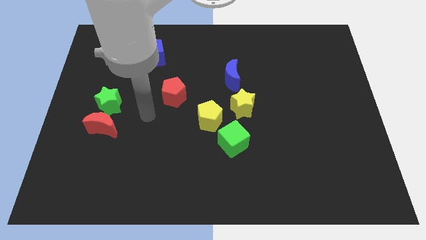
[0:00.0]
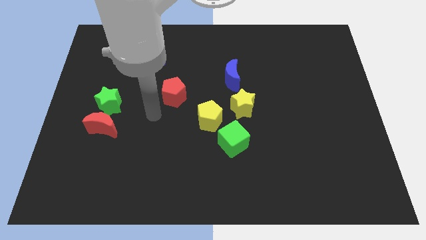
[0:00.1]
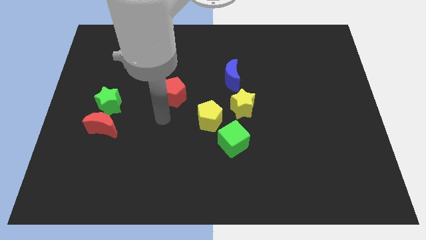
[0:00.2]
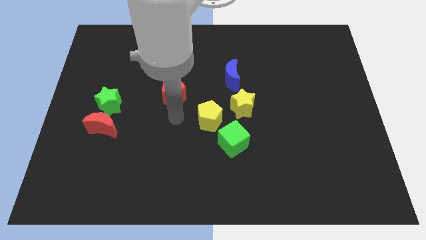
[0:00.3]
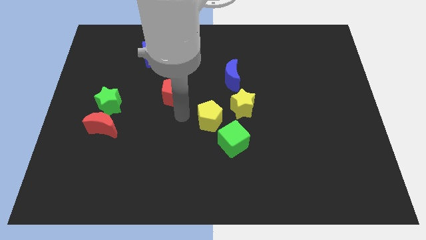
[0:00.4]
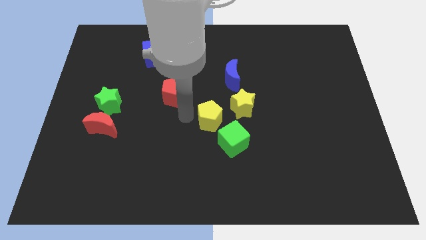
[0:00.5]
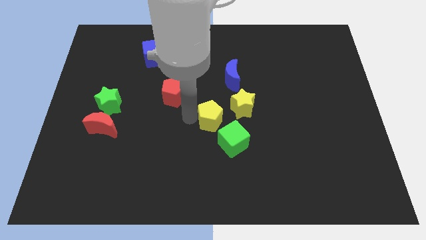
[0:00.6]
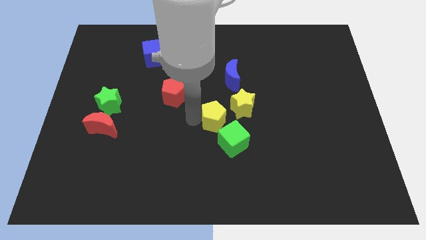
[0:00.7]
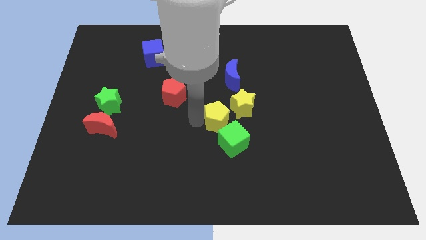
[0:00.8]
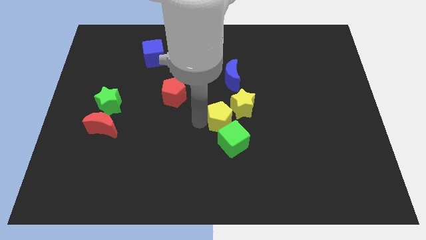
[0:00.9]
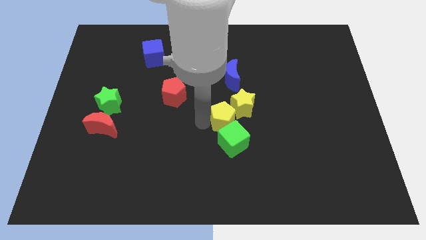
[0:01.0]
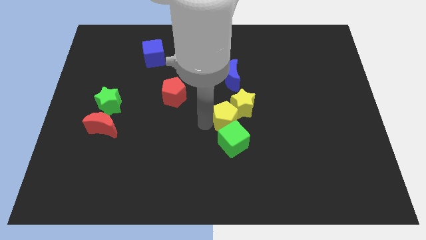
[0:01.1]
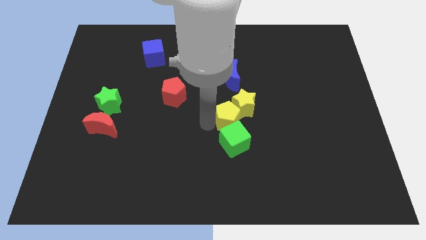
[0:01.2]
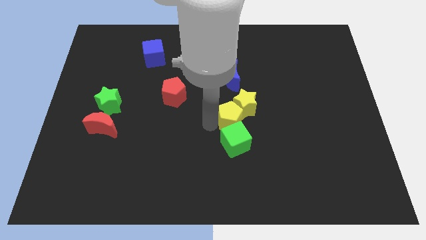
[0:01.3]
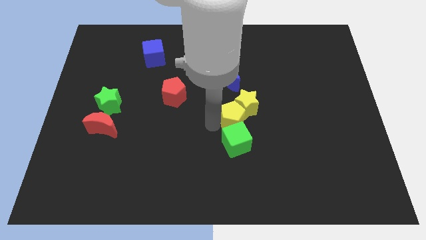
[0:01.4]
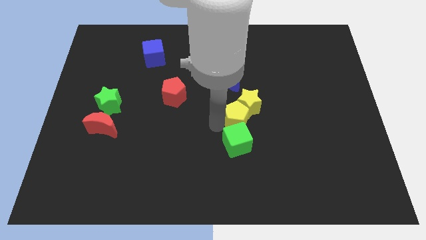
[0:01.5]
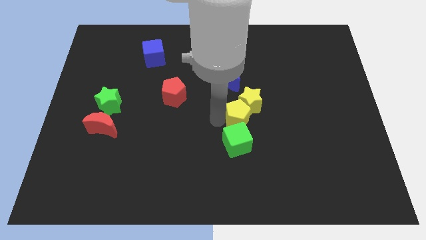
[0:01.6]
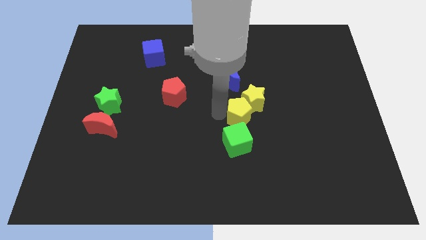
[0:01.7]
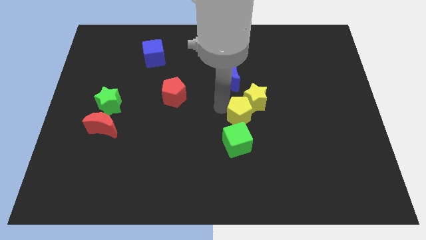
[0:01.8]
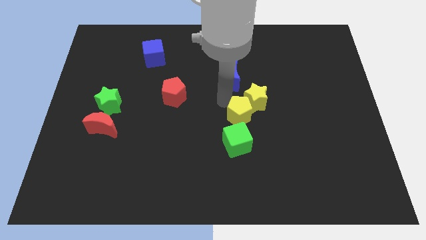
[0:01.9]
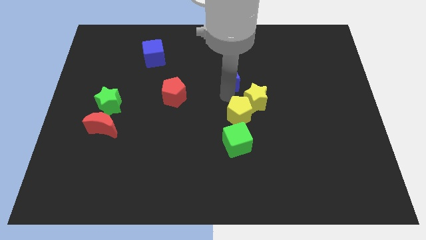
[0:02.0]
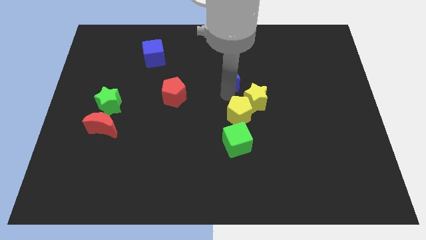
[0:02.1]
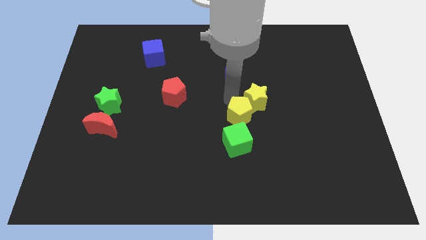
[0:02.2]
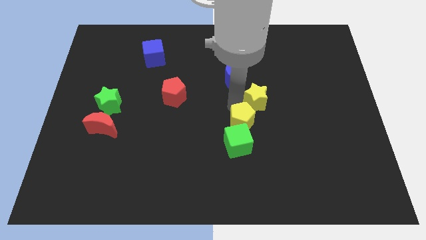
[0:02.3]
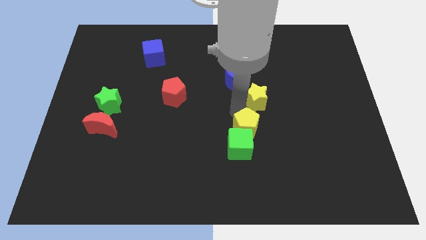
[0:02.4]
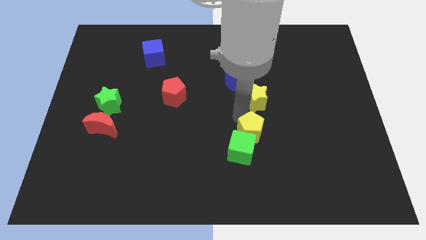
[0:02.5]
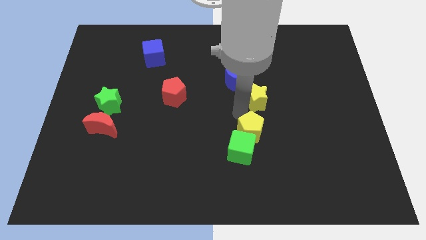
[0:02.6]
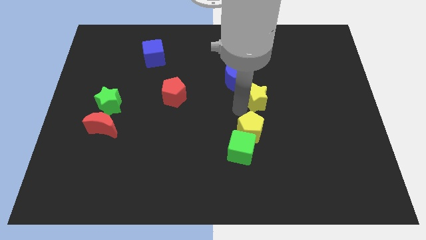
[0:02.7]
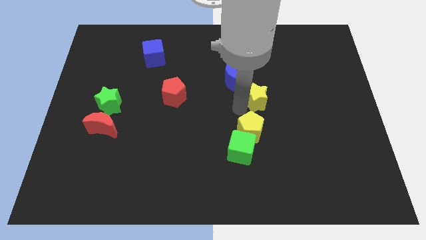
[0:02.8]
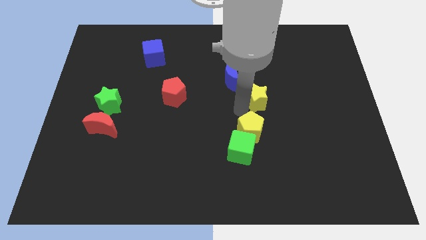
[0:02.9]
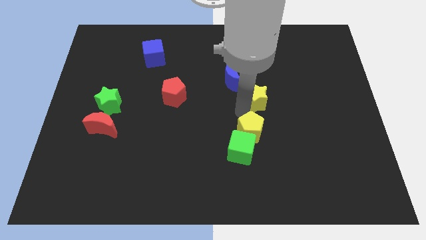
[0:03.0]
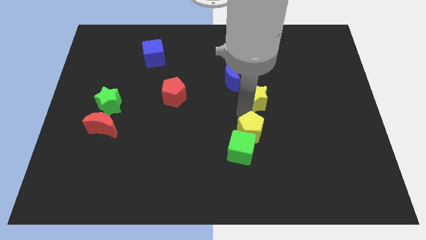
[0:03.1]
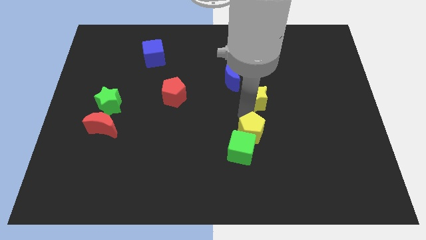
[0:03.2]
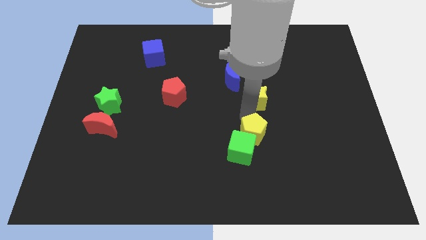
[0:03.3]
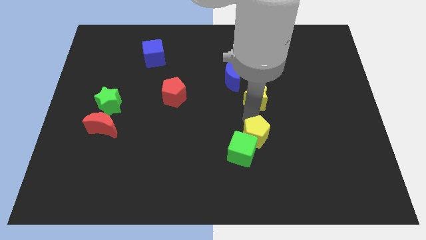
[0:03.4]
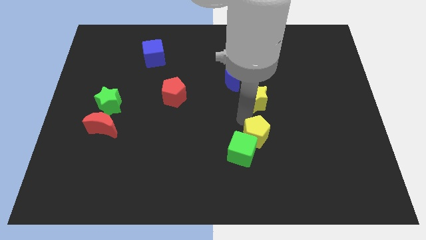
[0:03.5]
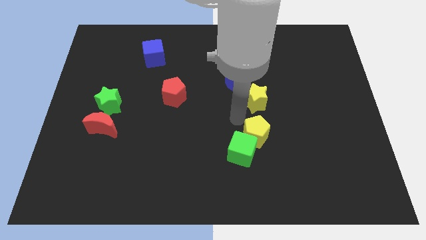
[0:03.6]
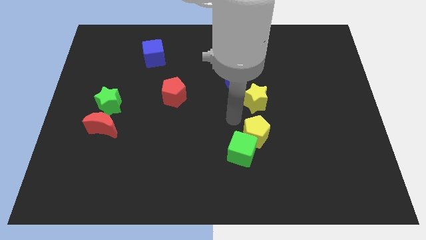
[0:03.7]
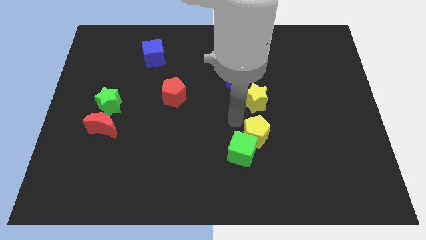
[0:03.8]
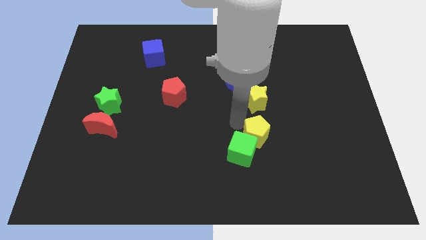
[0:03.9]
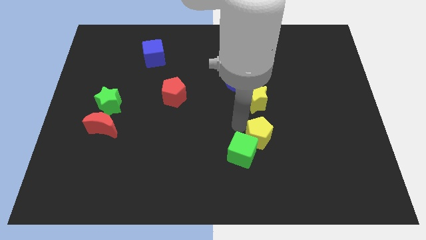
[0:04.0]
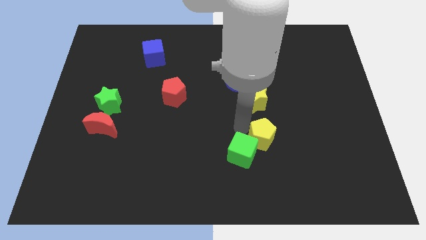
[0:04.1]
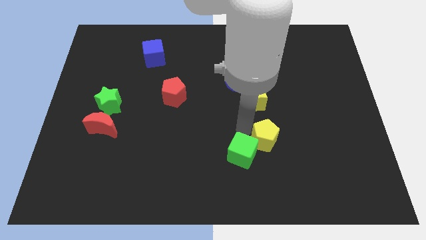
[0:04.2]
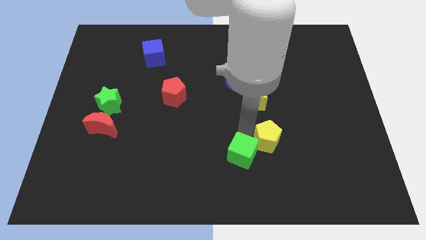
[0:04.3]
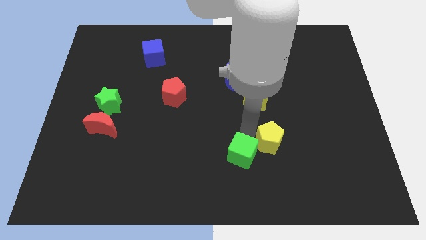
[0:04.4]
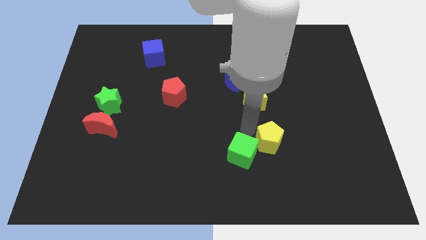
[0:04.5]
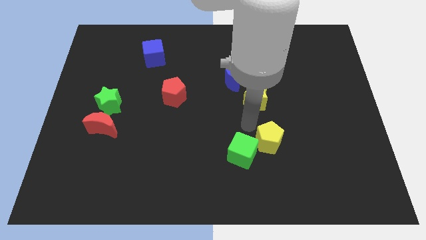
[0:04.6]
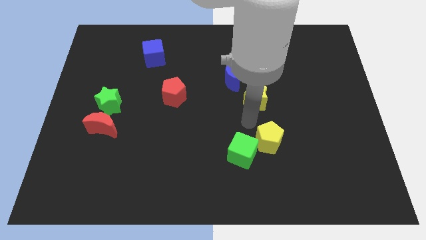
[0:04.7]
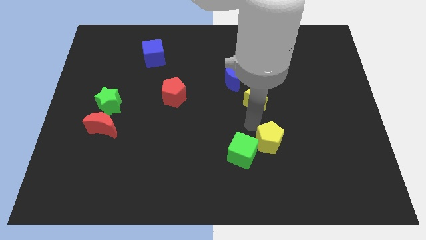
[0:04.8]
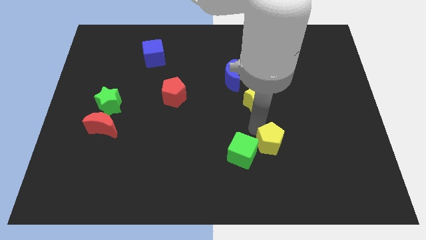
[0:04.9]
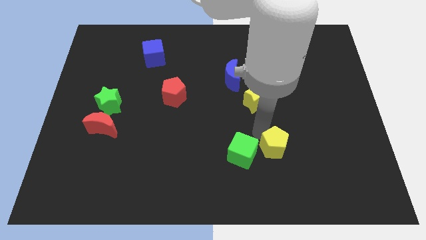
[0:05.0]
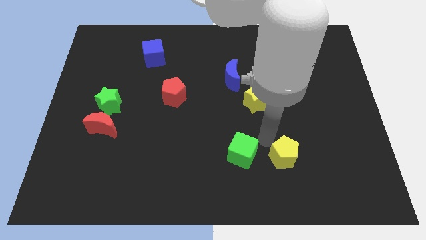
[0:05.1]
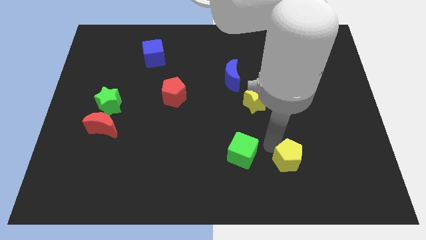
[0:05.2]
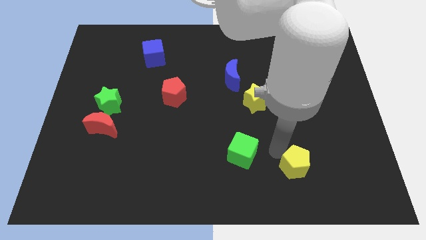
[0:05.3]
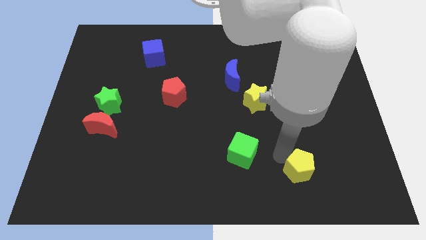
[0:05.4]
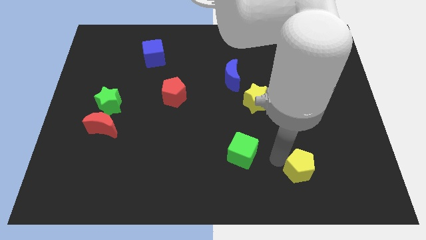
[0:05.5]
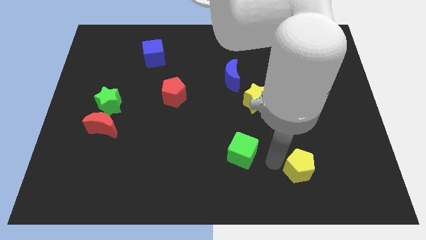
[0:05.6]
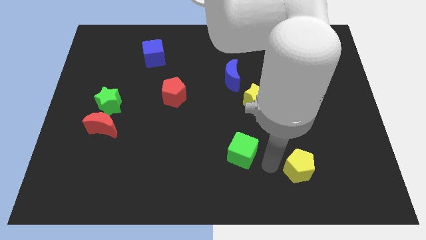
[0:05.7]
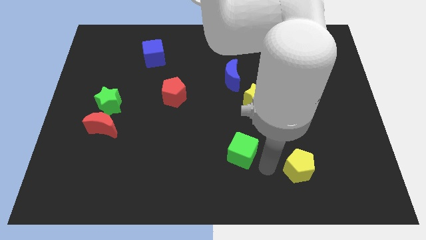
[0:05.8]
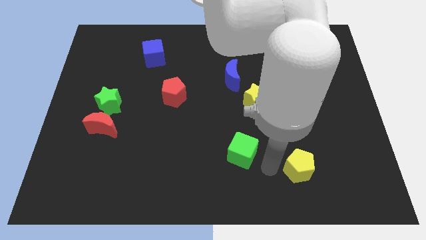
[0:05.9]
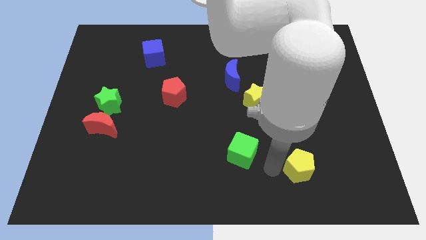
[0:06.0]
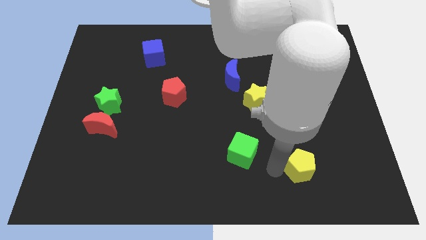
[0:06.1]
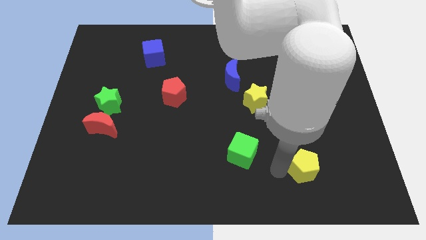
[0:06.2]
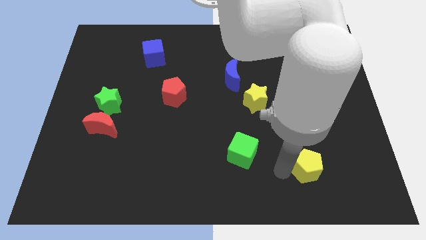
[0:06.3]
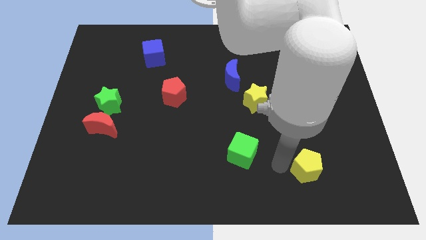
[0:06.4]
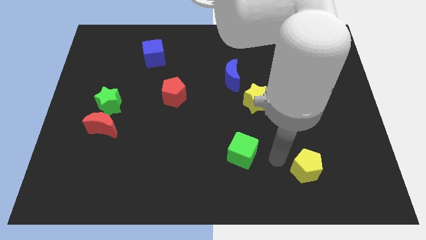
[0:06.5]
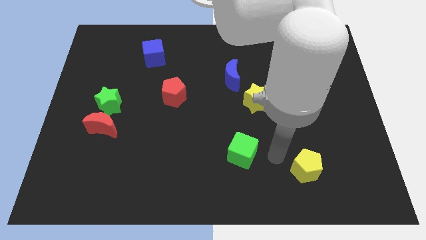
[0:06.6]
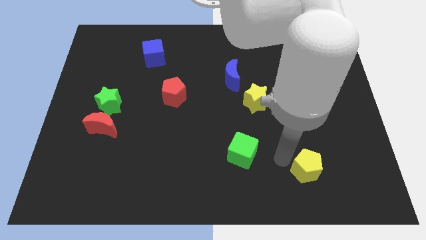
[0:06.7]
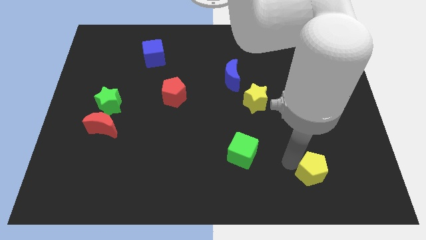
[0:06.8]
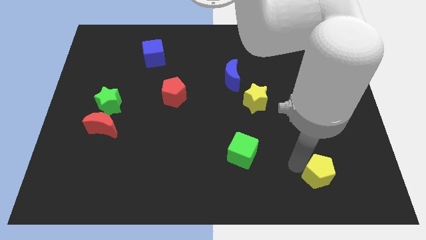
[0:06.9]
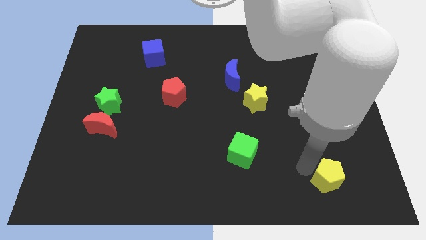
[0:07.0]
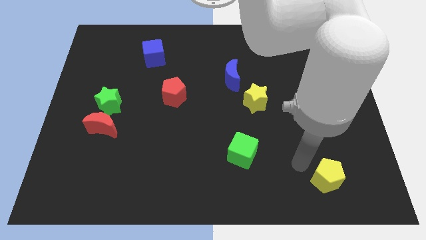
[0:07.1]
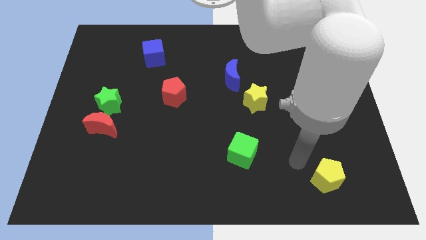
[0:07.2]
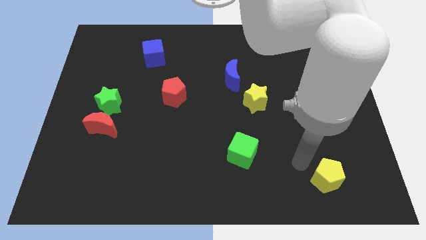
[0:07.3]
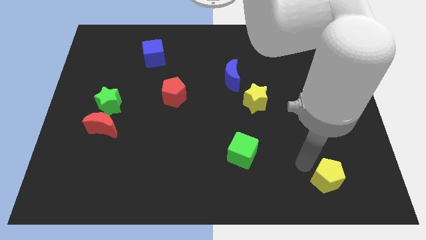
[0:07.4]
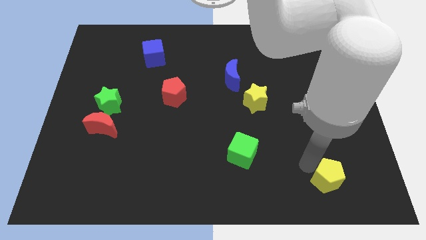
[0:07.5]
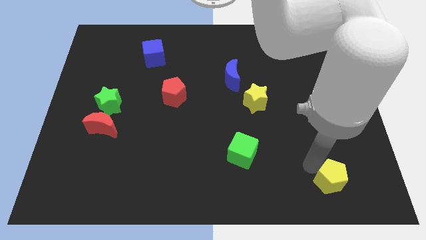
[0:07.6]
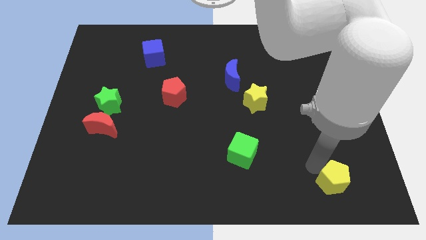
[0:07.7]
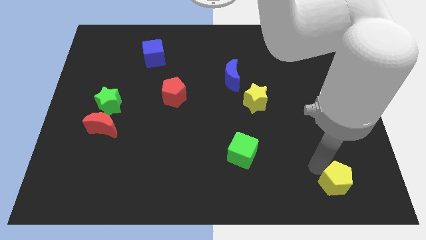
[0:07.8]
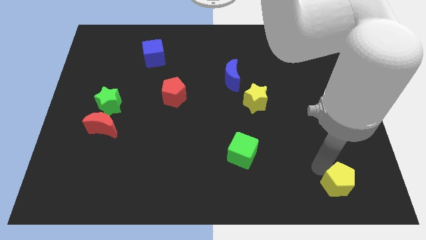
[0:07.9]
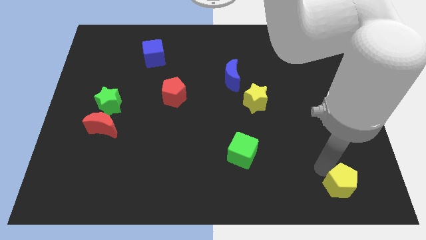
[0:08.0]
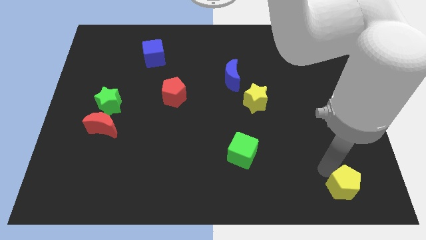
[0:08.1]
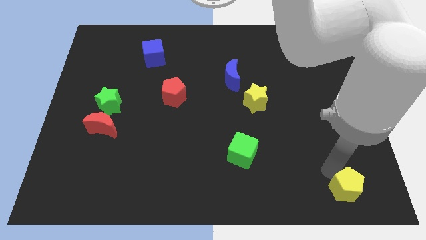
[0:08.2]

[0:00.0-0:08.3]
push the yellow pentagon to the bottom right
